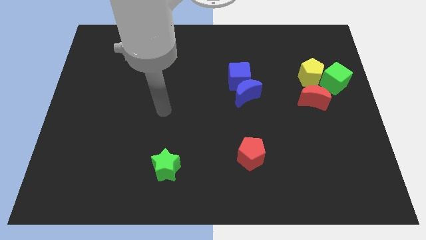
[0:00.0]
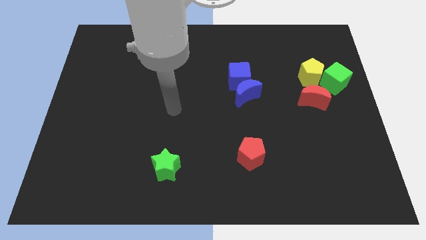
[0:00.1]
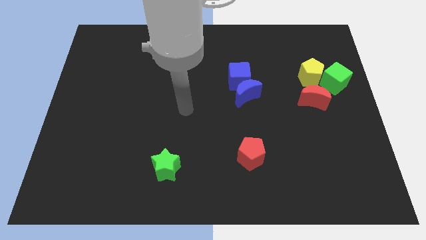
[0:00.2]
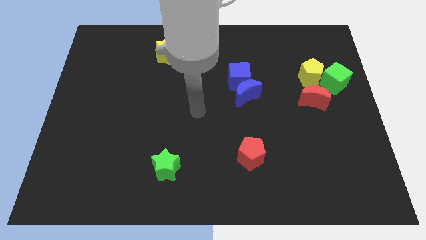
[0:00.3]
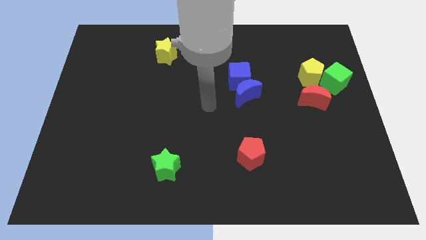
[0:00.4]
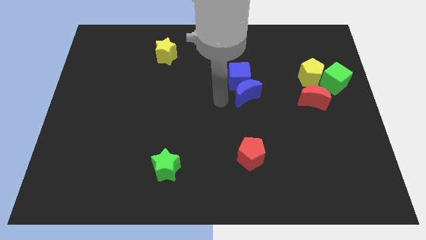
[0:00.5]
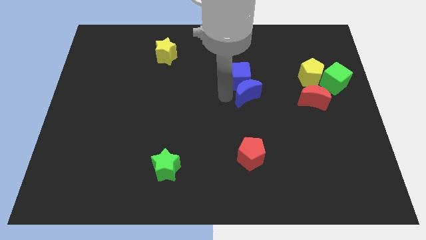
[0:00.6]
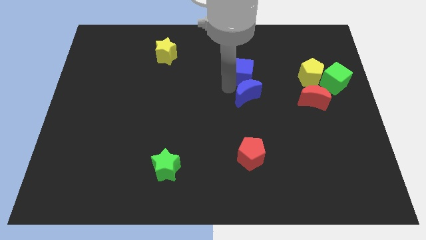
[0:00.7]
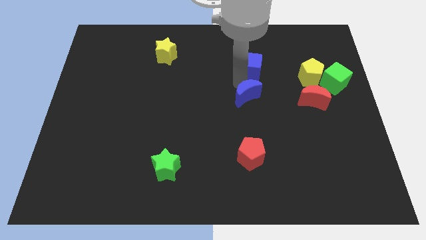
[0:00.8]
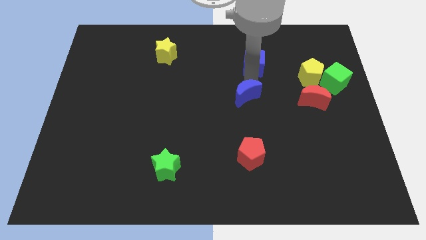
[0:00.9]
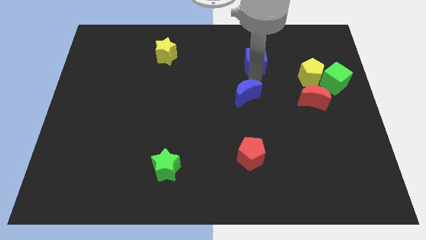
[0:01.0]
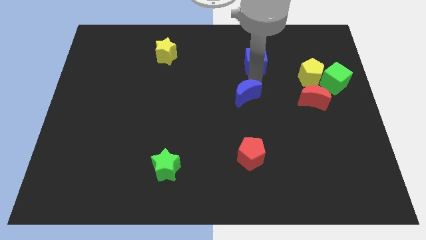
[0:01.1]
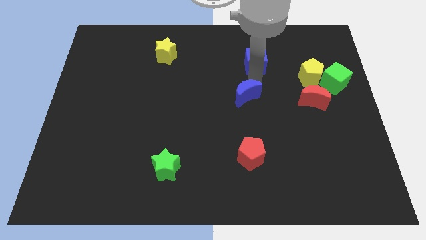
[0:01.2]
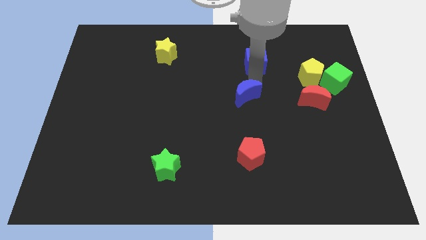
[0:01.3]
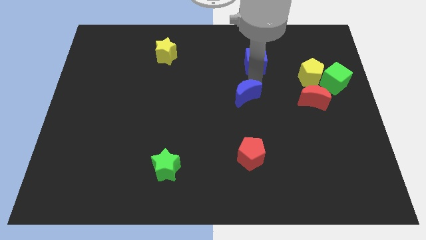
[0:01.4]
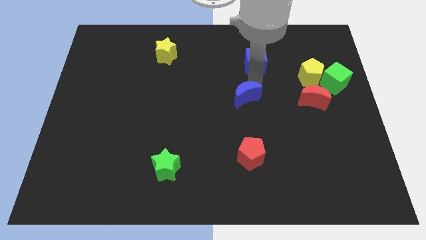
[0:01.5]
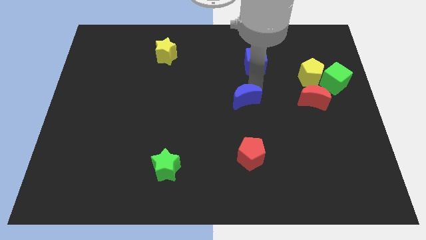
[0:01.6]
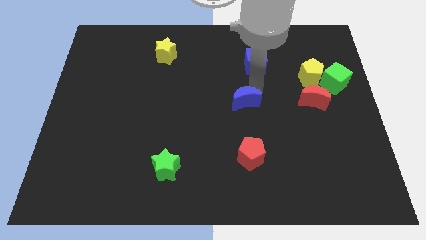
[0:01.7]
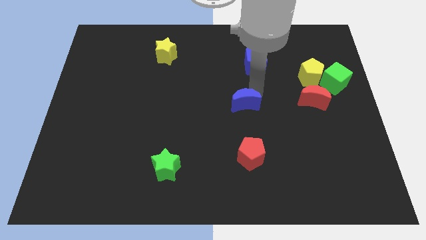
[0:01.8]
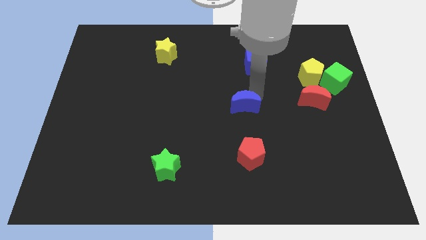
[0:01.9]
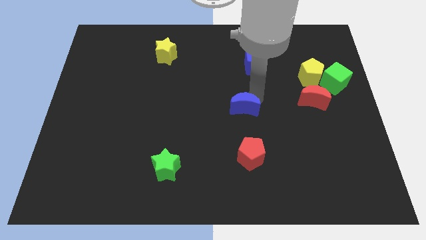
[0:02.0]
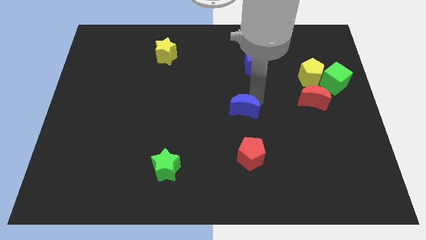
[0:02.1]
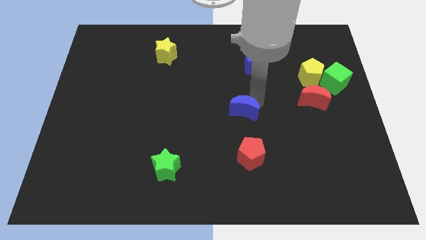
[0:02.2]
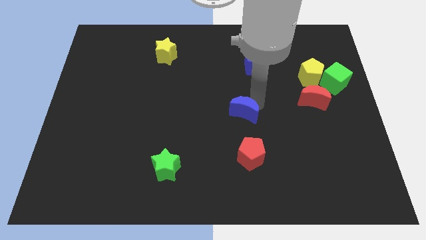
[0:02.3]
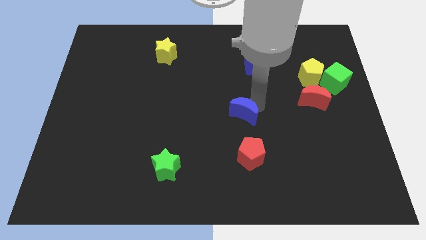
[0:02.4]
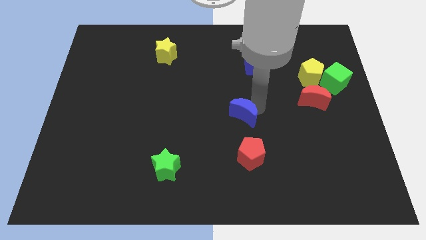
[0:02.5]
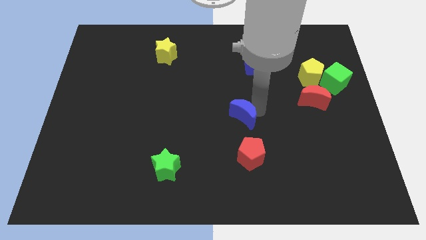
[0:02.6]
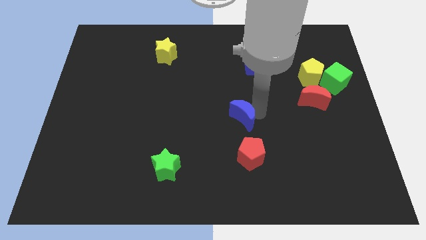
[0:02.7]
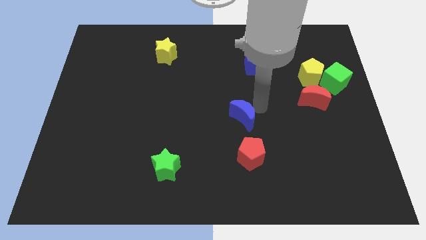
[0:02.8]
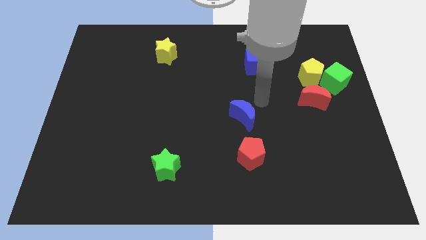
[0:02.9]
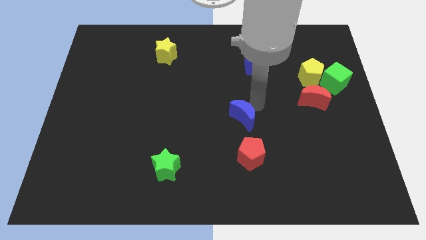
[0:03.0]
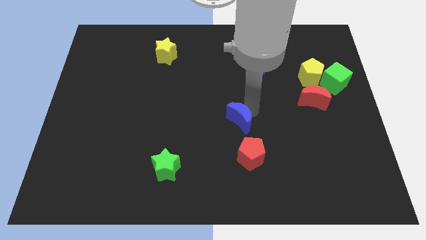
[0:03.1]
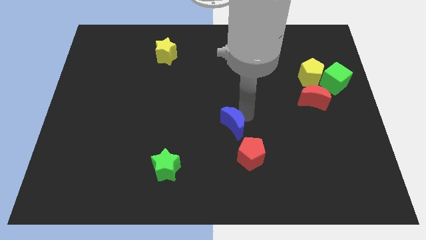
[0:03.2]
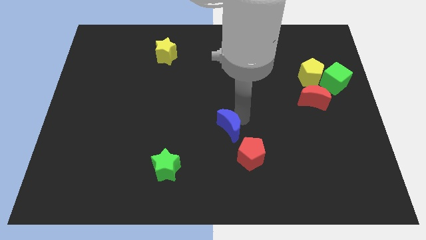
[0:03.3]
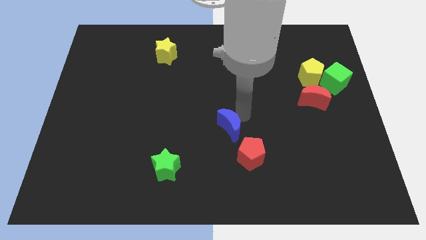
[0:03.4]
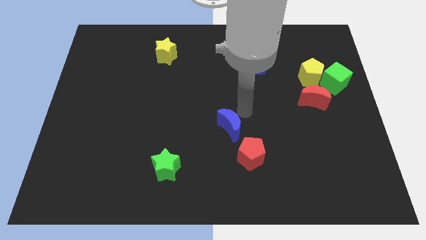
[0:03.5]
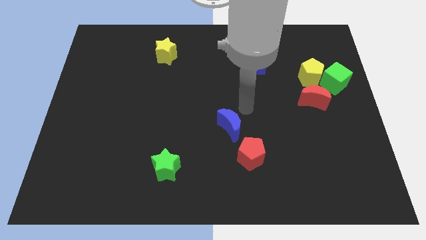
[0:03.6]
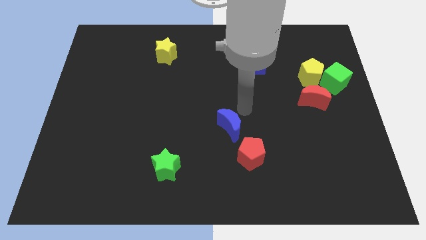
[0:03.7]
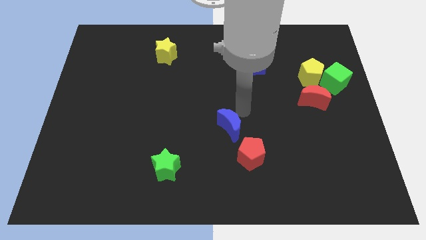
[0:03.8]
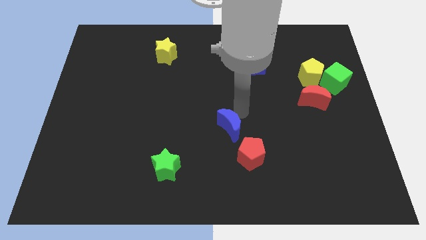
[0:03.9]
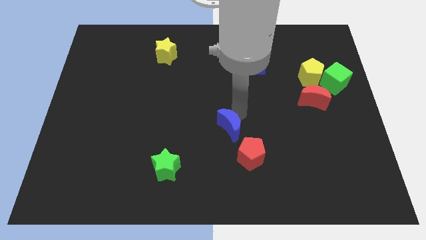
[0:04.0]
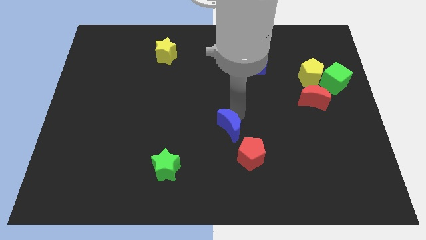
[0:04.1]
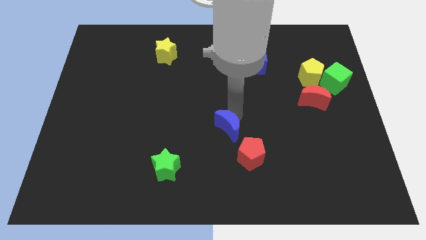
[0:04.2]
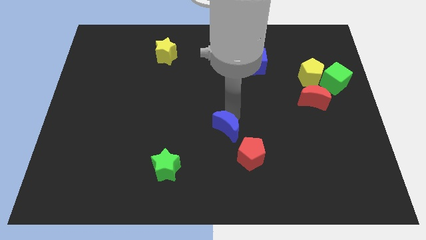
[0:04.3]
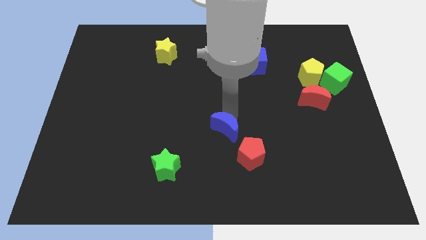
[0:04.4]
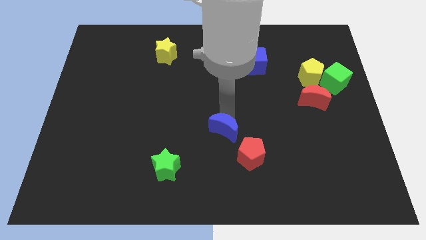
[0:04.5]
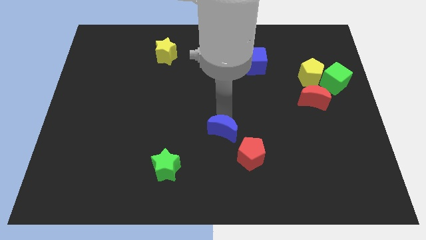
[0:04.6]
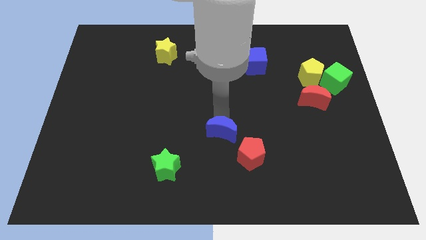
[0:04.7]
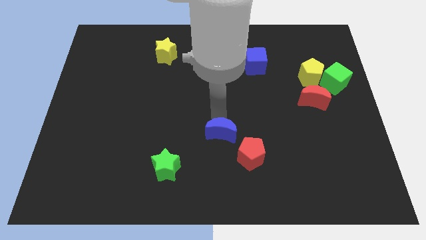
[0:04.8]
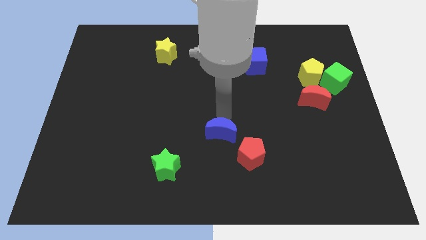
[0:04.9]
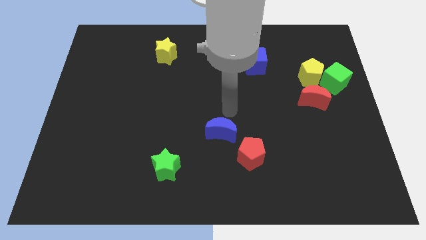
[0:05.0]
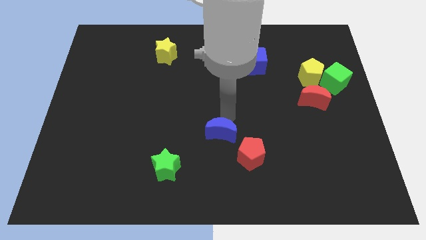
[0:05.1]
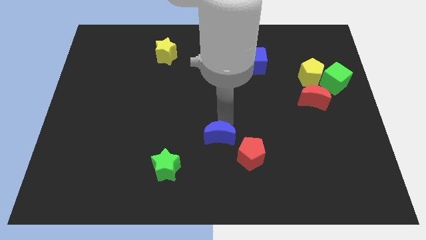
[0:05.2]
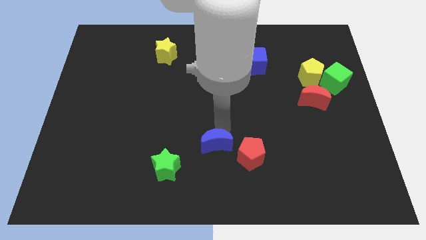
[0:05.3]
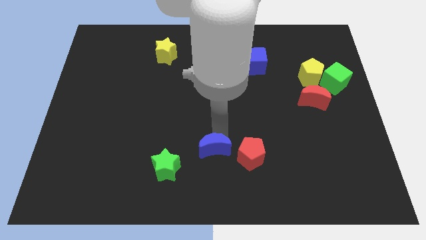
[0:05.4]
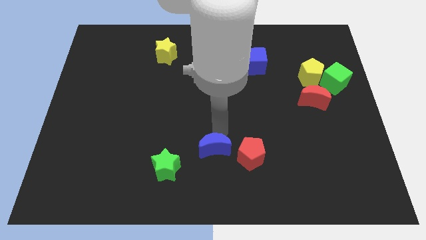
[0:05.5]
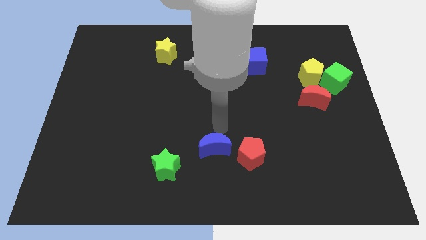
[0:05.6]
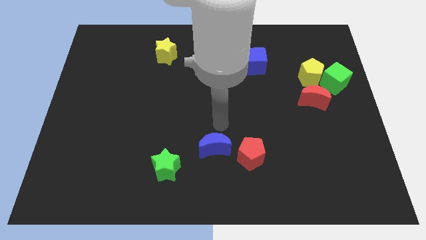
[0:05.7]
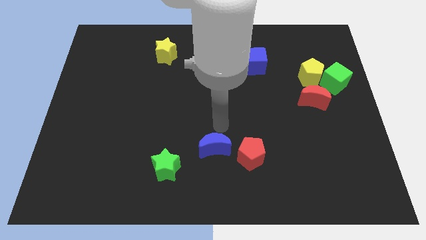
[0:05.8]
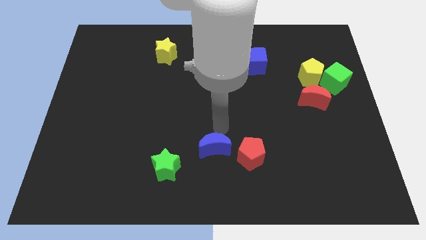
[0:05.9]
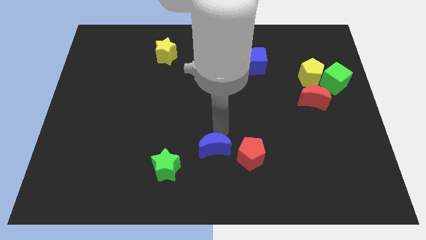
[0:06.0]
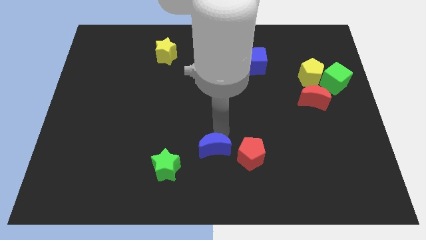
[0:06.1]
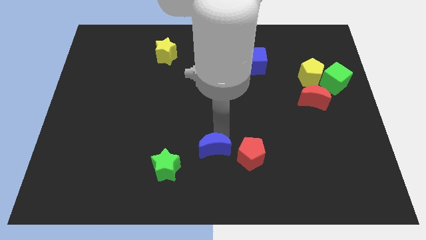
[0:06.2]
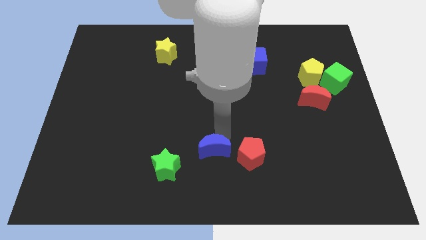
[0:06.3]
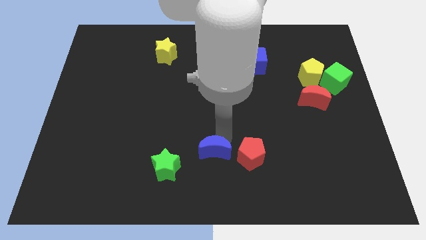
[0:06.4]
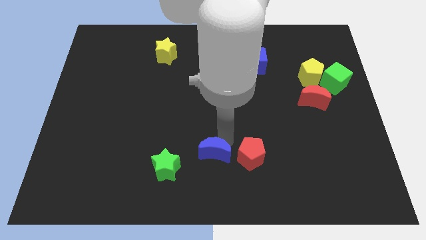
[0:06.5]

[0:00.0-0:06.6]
put the blue moon to the bottom

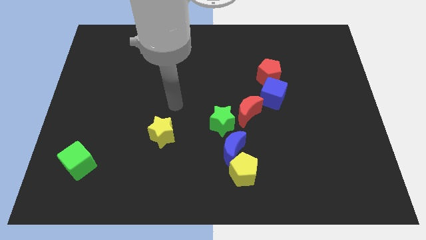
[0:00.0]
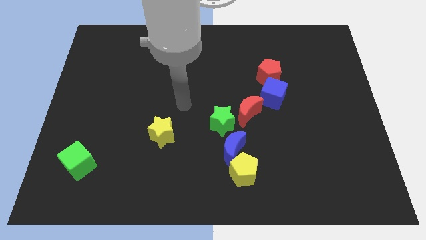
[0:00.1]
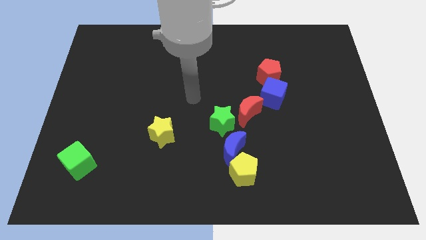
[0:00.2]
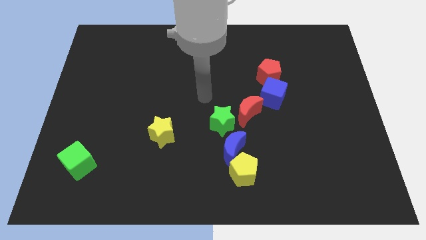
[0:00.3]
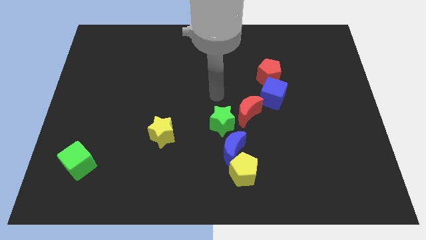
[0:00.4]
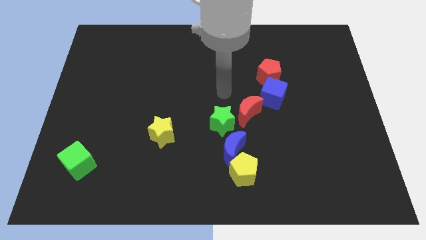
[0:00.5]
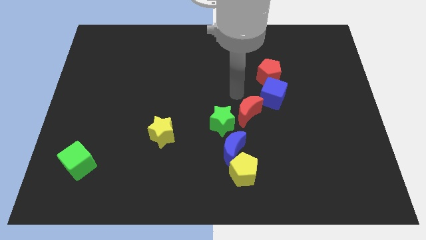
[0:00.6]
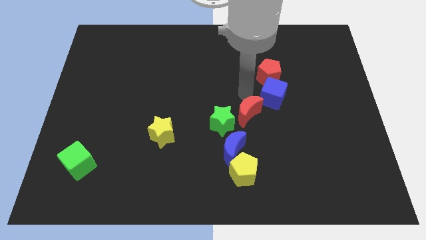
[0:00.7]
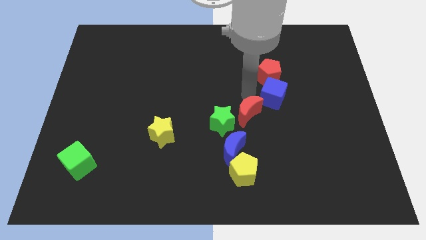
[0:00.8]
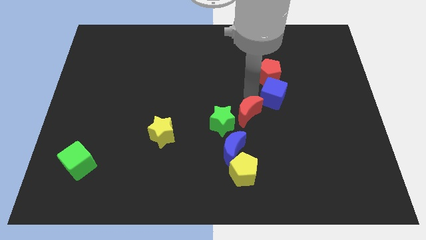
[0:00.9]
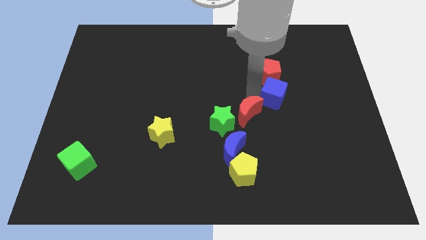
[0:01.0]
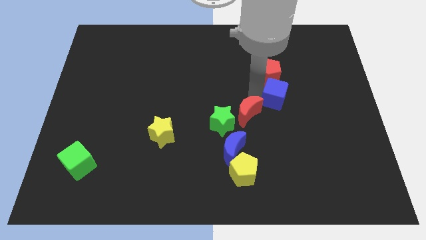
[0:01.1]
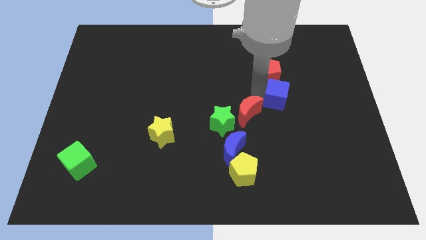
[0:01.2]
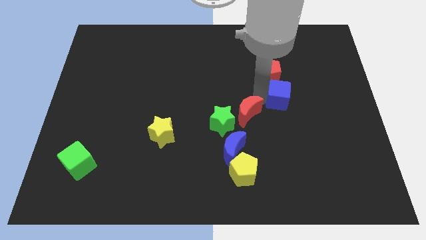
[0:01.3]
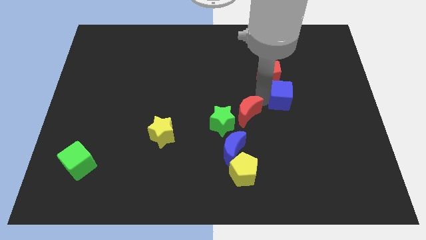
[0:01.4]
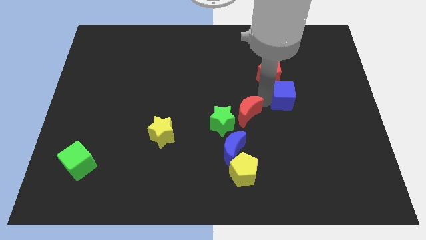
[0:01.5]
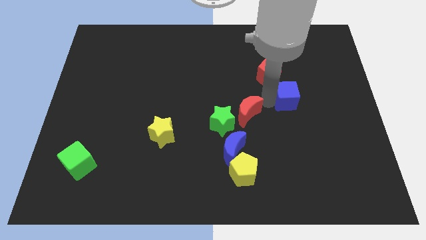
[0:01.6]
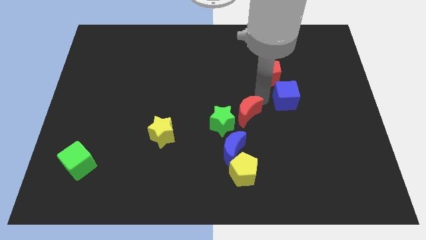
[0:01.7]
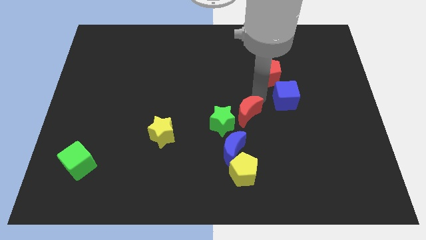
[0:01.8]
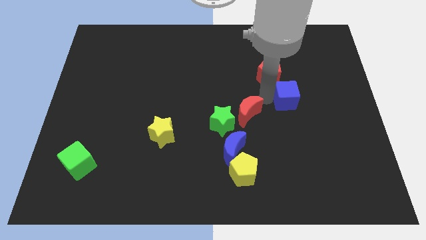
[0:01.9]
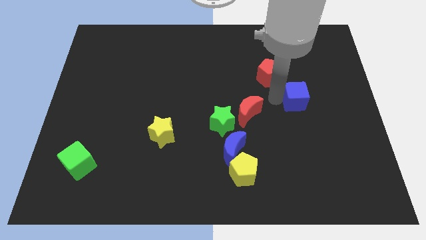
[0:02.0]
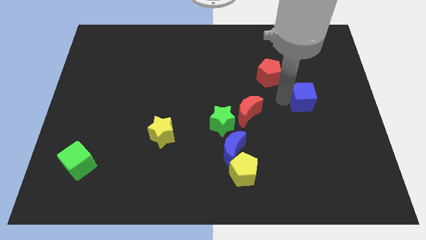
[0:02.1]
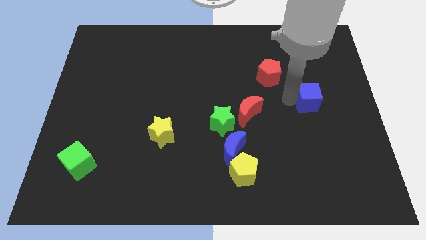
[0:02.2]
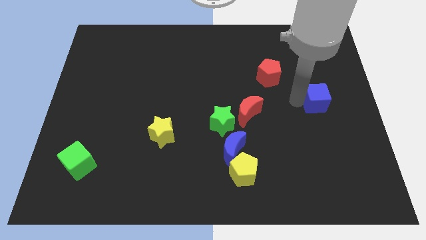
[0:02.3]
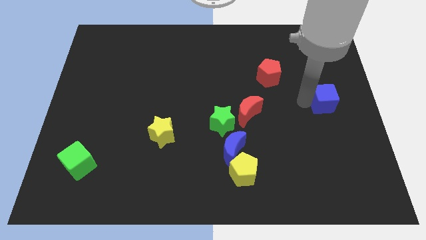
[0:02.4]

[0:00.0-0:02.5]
slide the blue cube to the center right
